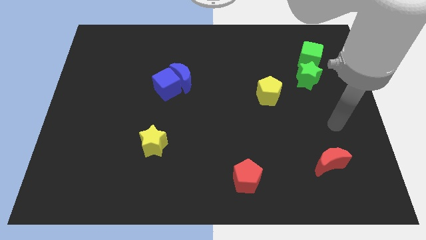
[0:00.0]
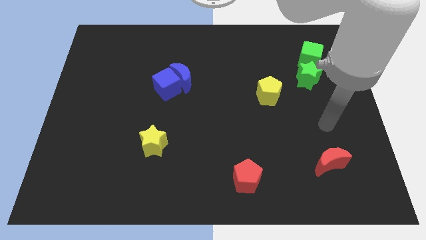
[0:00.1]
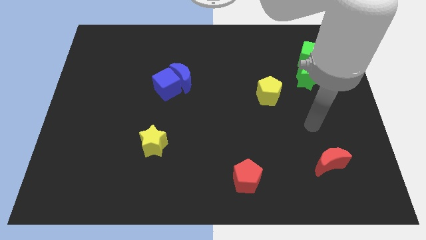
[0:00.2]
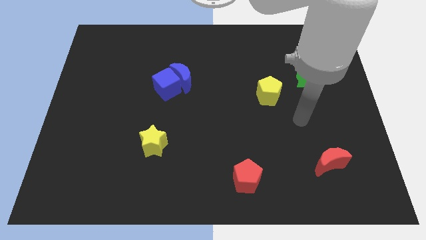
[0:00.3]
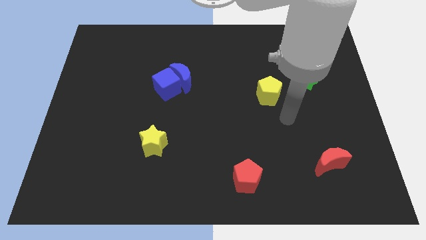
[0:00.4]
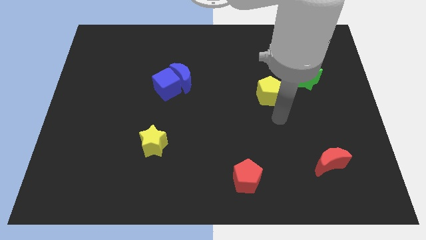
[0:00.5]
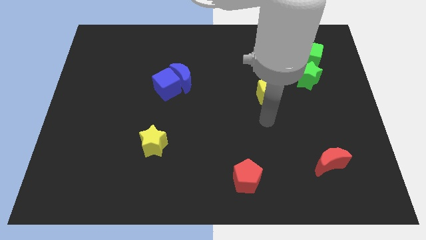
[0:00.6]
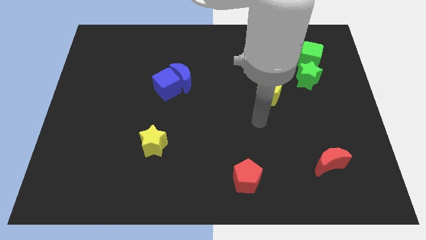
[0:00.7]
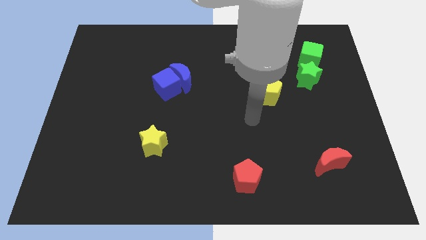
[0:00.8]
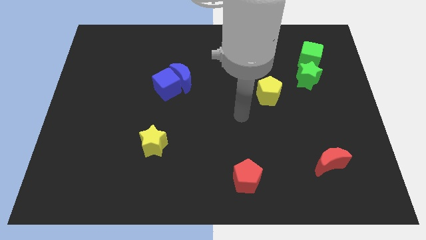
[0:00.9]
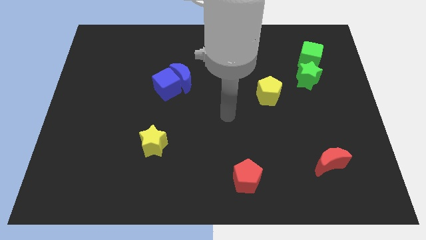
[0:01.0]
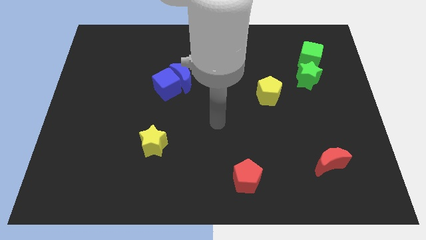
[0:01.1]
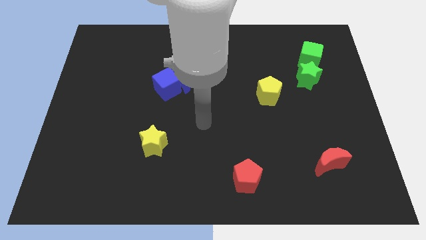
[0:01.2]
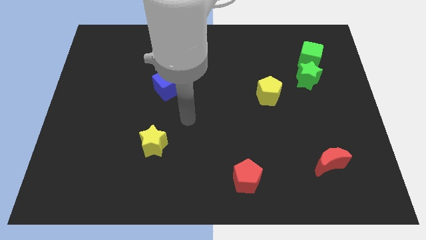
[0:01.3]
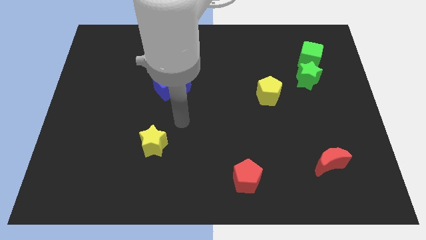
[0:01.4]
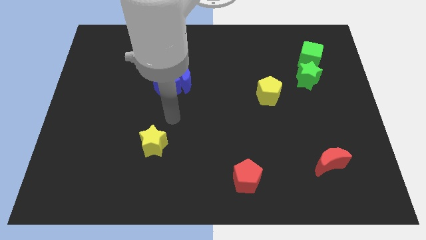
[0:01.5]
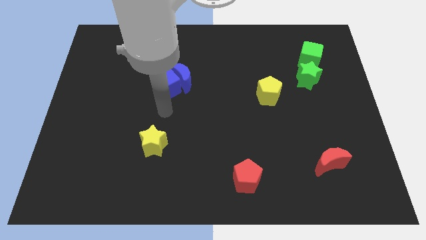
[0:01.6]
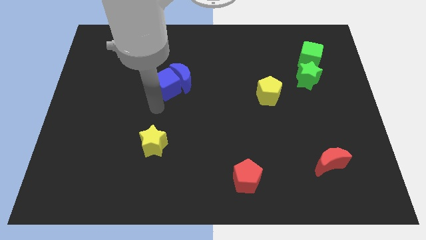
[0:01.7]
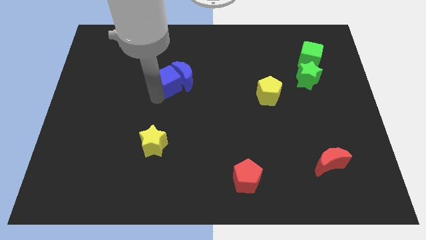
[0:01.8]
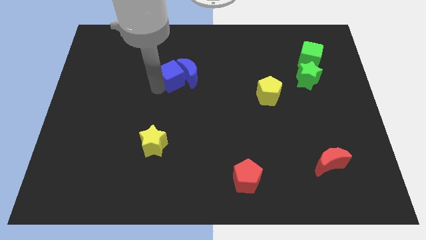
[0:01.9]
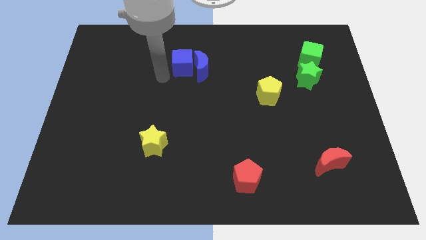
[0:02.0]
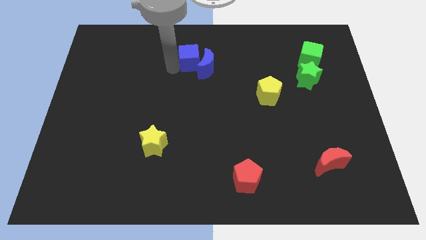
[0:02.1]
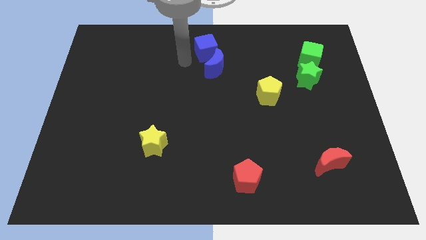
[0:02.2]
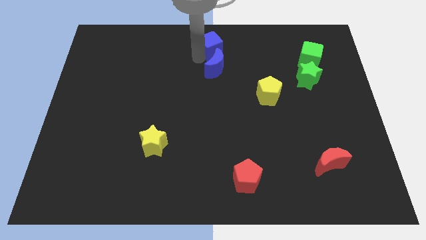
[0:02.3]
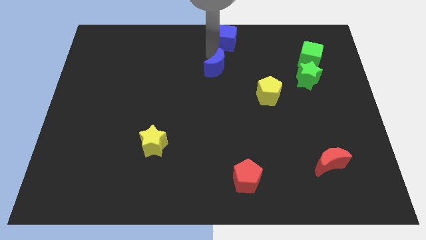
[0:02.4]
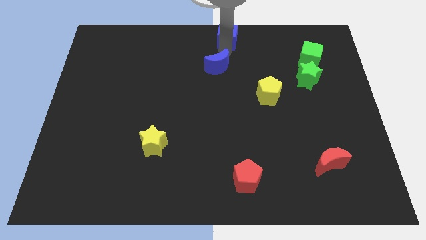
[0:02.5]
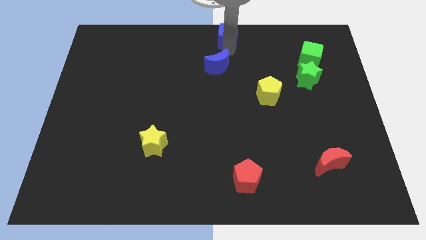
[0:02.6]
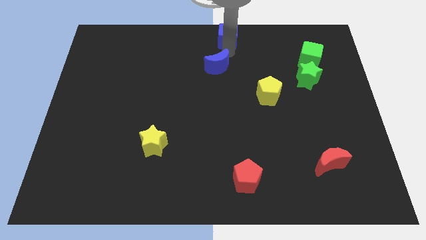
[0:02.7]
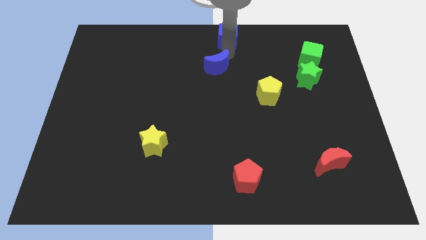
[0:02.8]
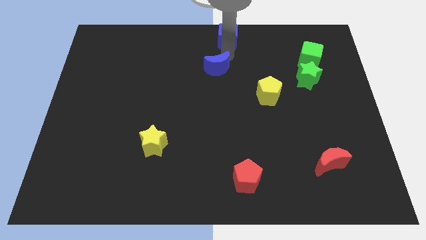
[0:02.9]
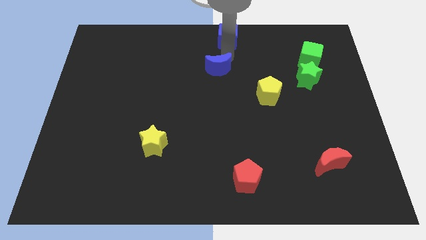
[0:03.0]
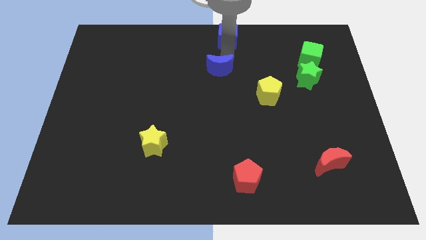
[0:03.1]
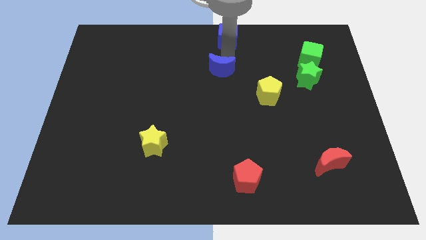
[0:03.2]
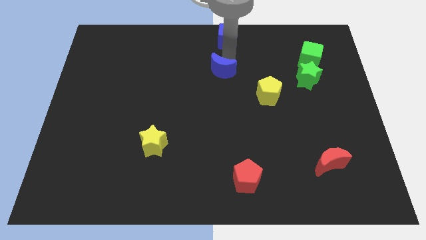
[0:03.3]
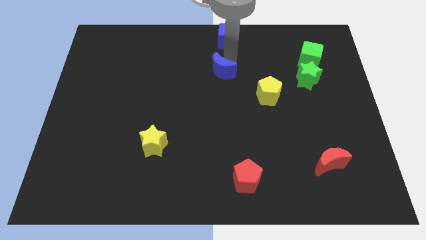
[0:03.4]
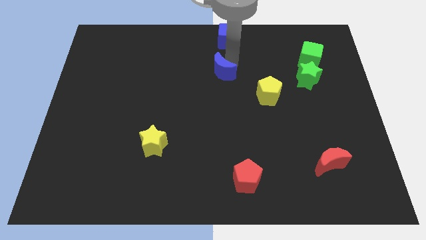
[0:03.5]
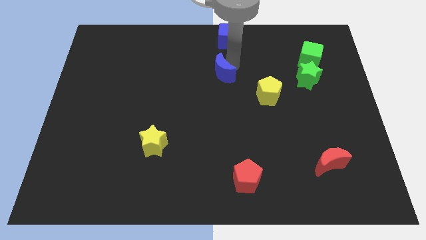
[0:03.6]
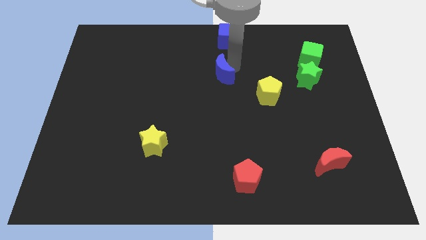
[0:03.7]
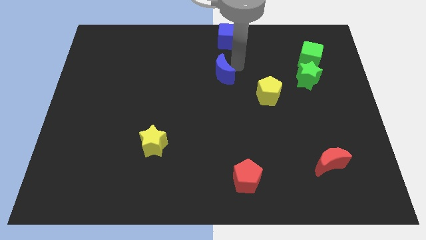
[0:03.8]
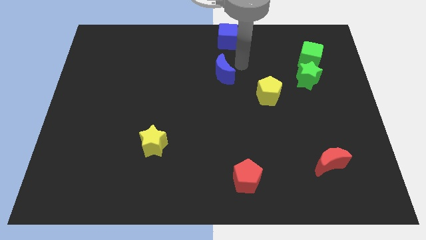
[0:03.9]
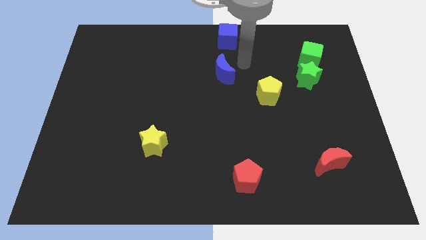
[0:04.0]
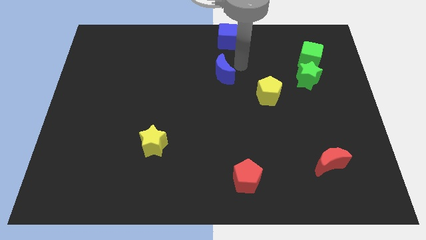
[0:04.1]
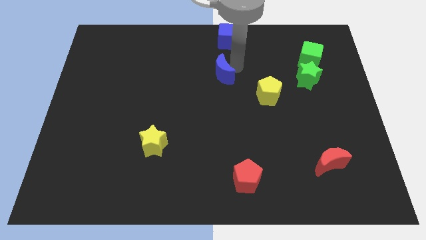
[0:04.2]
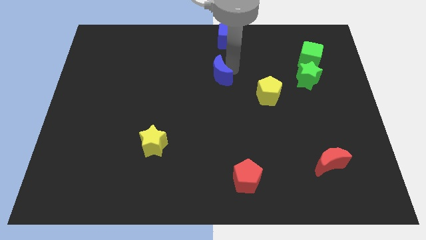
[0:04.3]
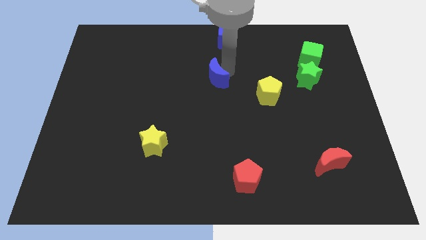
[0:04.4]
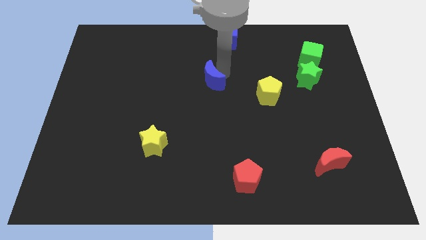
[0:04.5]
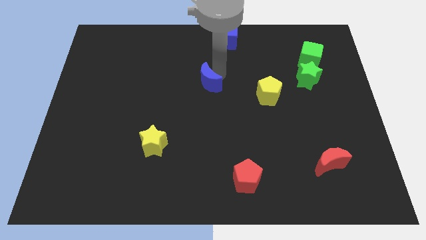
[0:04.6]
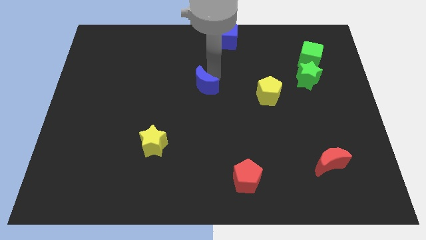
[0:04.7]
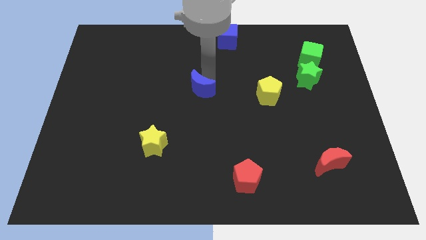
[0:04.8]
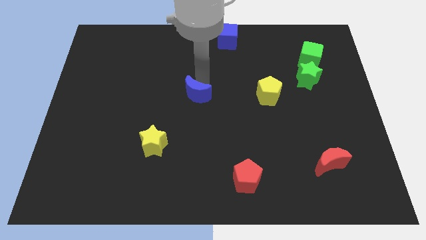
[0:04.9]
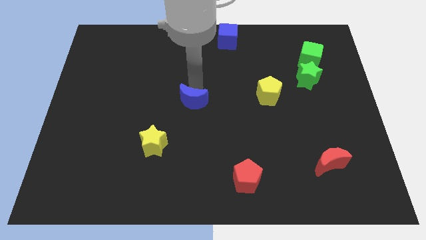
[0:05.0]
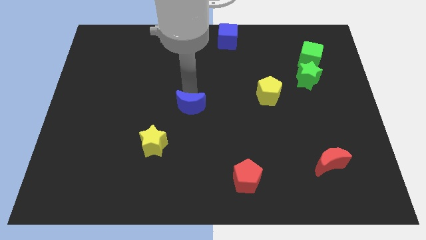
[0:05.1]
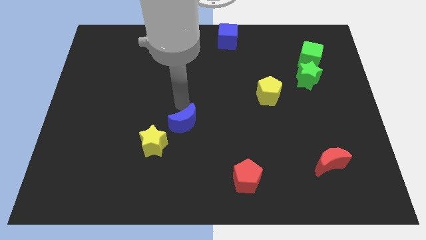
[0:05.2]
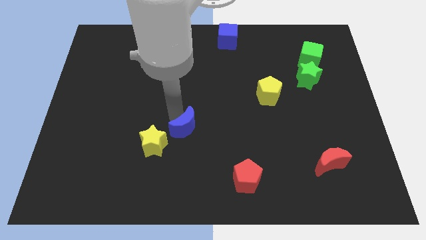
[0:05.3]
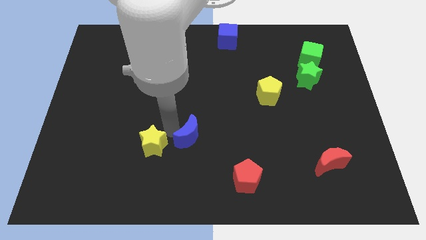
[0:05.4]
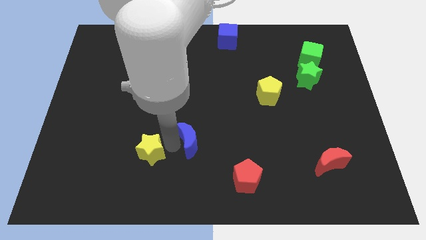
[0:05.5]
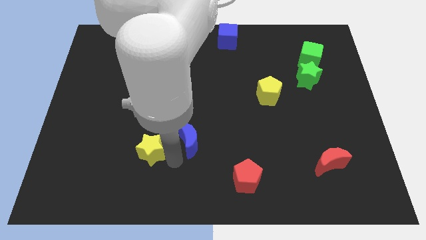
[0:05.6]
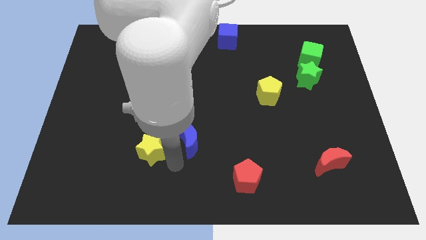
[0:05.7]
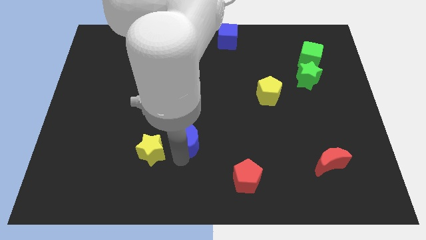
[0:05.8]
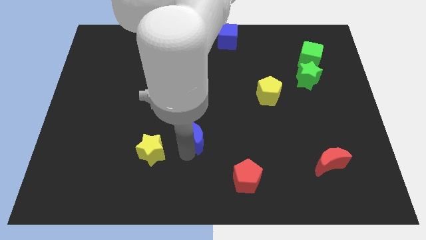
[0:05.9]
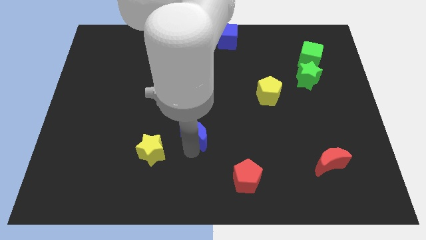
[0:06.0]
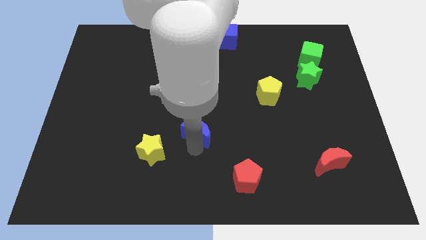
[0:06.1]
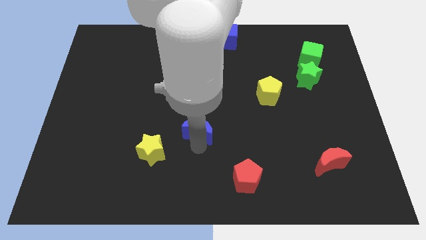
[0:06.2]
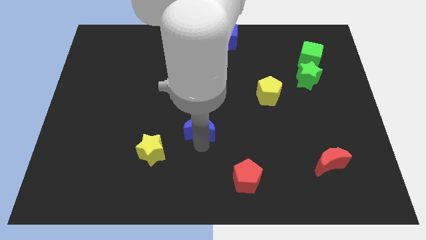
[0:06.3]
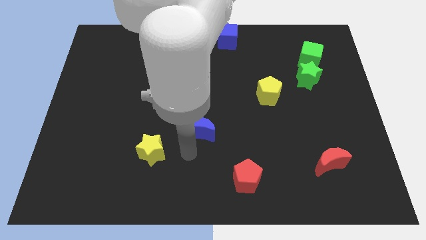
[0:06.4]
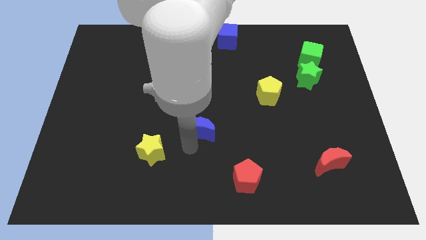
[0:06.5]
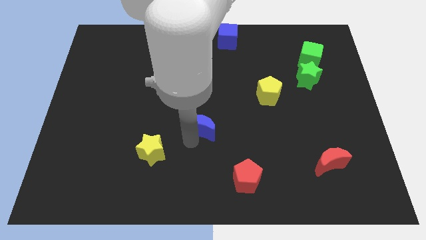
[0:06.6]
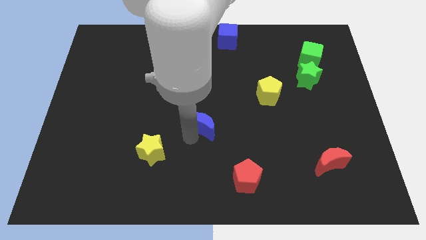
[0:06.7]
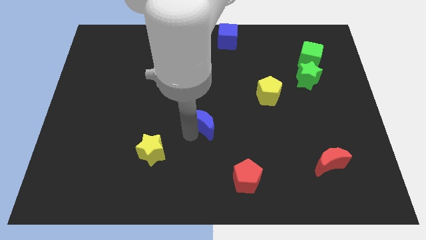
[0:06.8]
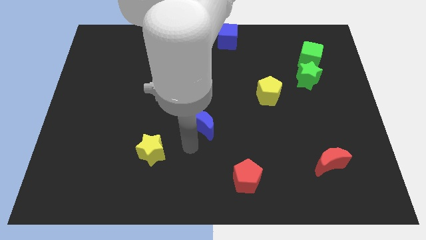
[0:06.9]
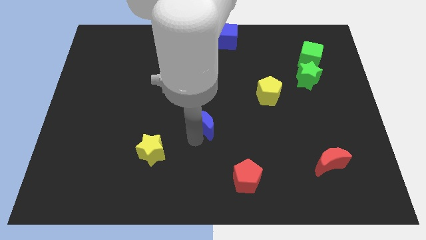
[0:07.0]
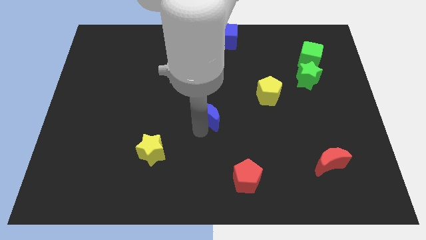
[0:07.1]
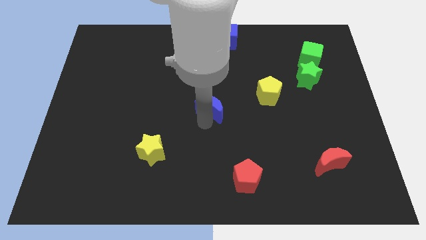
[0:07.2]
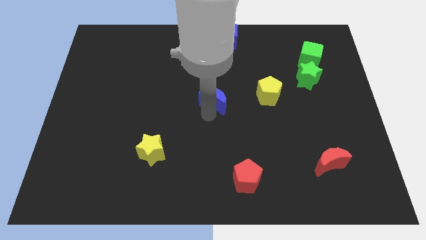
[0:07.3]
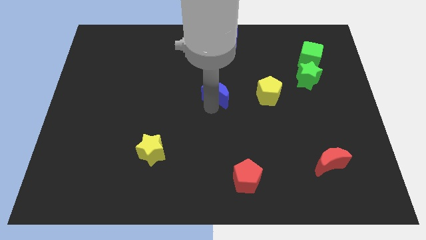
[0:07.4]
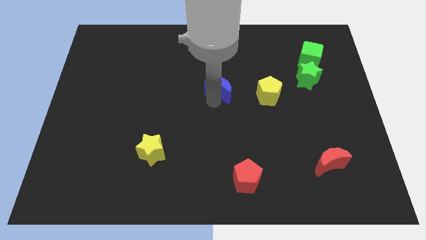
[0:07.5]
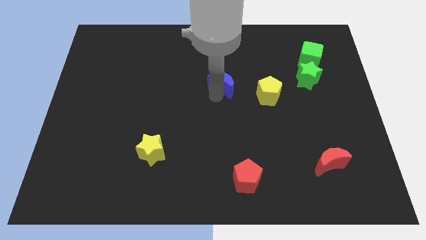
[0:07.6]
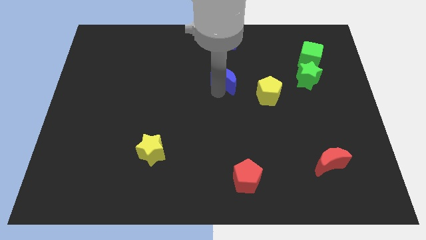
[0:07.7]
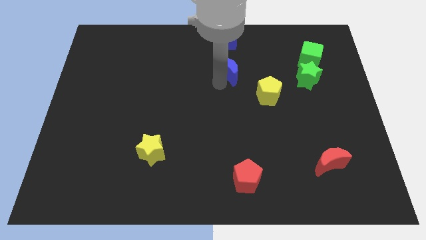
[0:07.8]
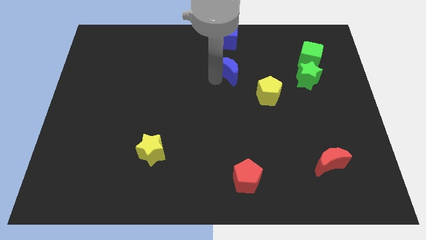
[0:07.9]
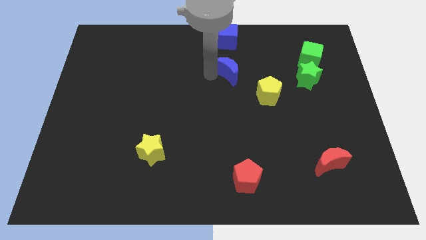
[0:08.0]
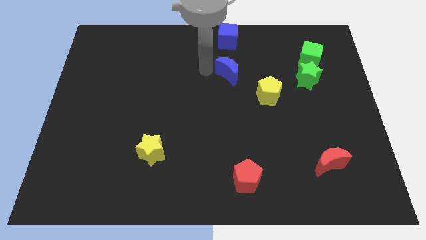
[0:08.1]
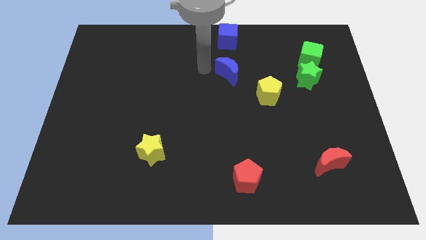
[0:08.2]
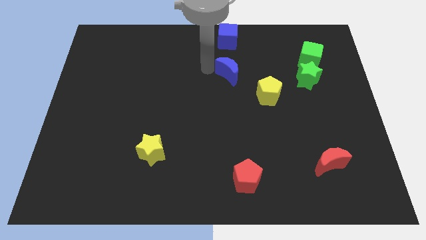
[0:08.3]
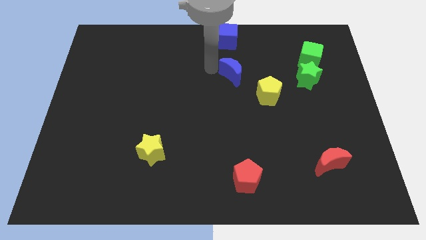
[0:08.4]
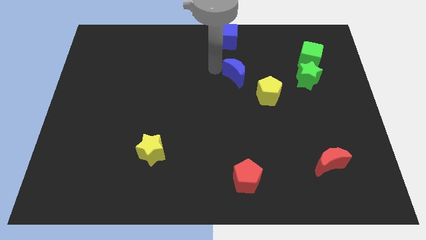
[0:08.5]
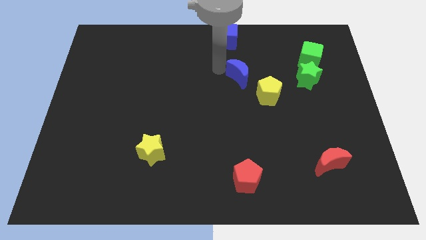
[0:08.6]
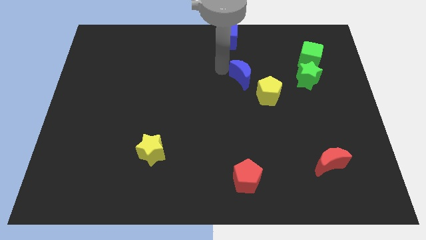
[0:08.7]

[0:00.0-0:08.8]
put the blue moon just left of the green star
